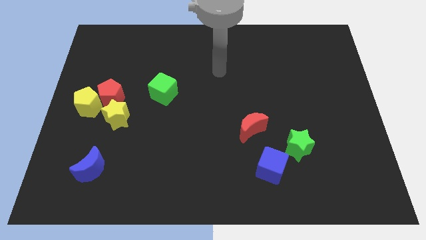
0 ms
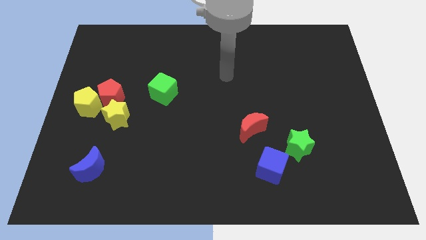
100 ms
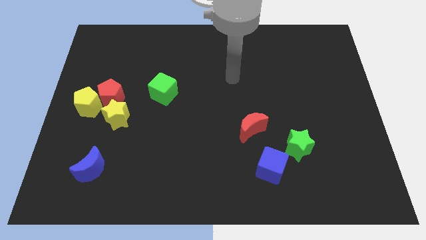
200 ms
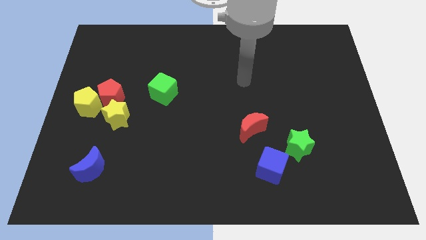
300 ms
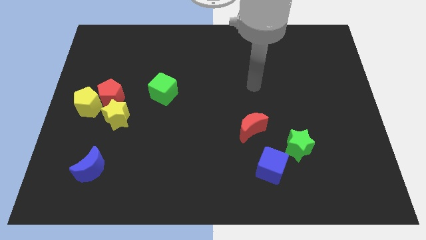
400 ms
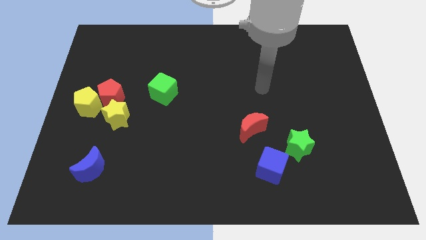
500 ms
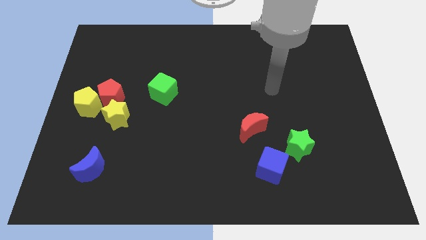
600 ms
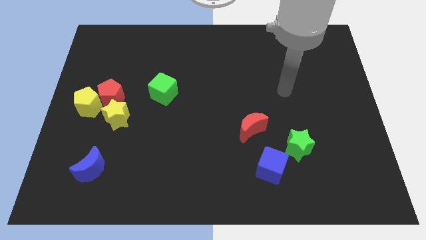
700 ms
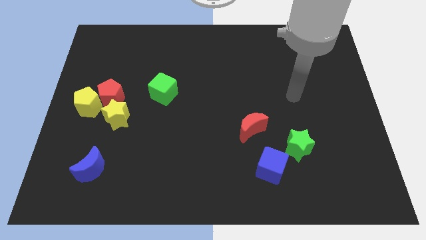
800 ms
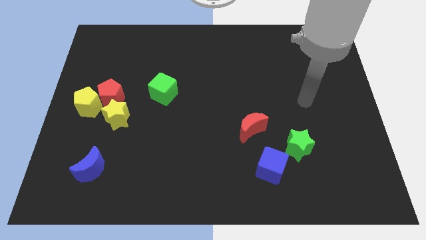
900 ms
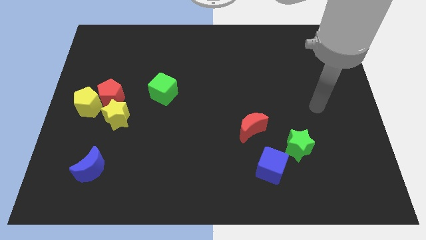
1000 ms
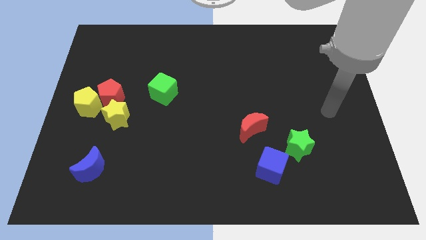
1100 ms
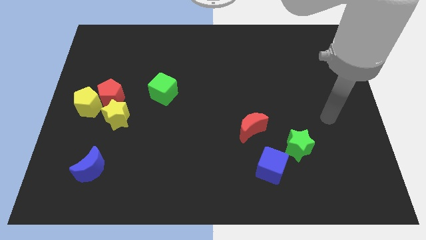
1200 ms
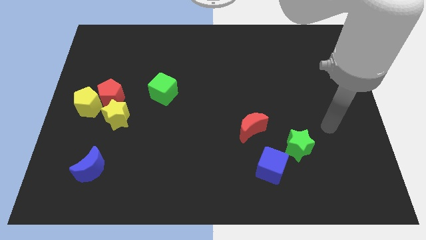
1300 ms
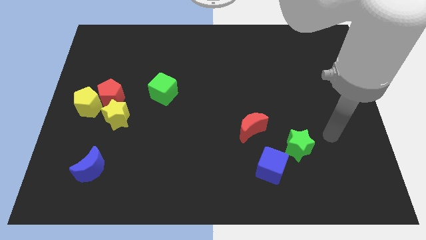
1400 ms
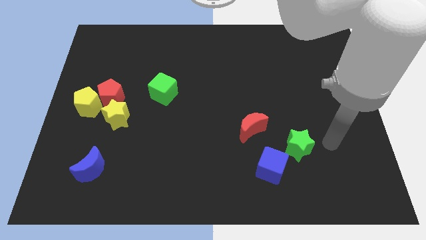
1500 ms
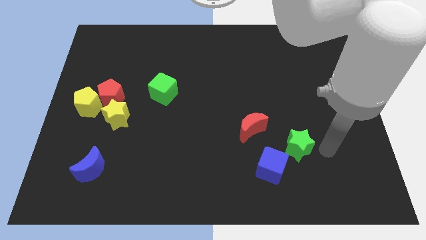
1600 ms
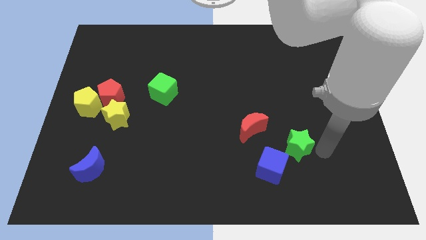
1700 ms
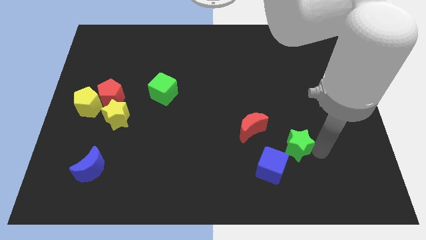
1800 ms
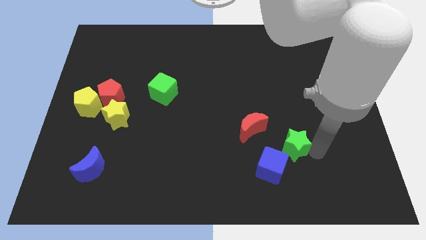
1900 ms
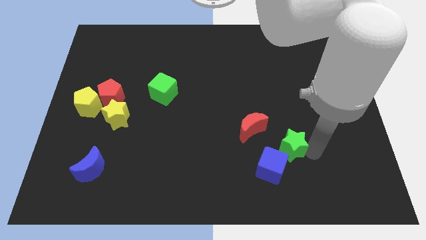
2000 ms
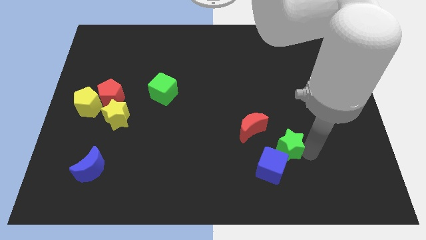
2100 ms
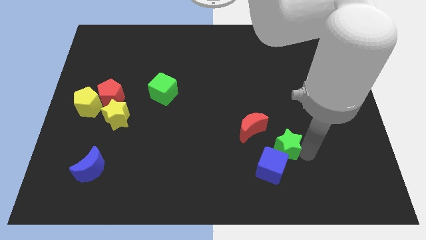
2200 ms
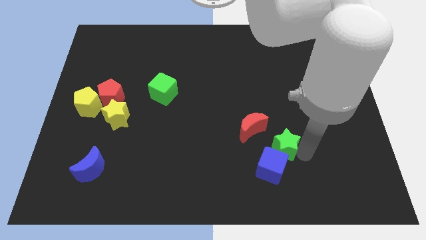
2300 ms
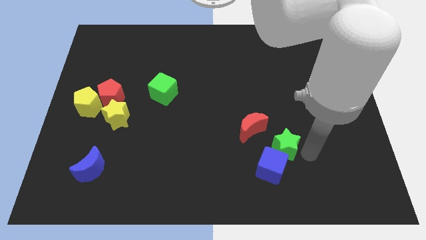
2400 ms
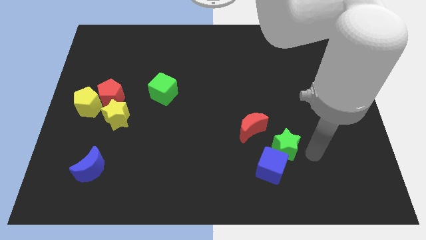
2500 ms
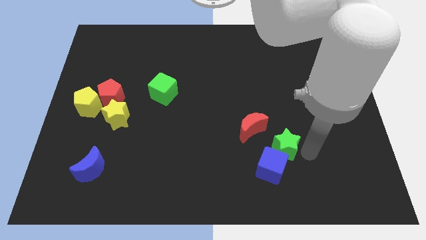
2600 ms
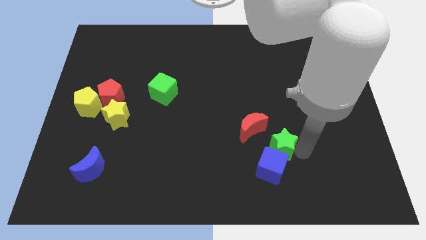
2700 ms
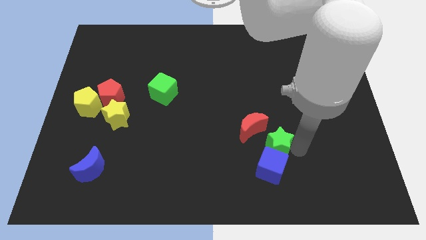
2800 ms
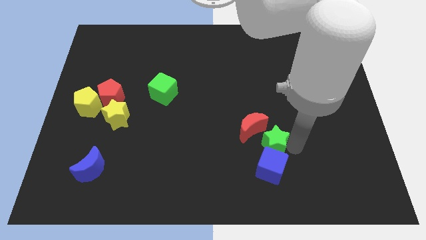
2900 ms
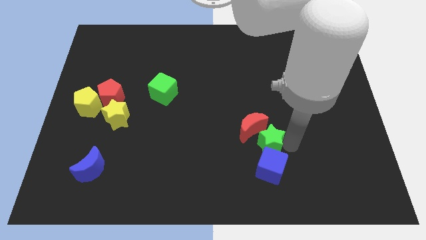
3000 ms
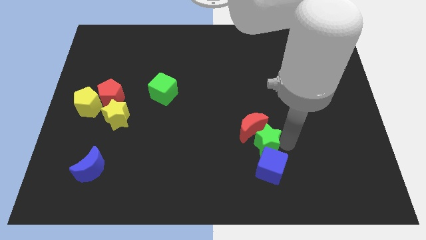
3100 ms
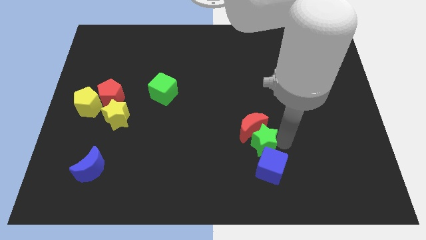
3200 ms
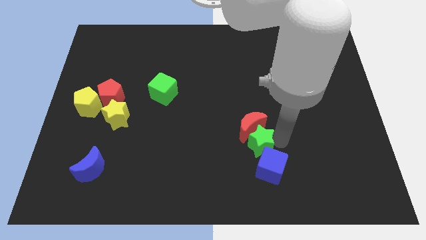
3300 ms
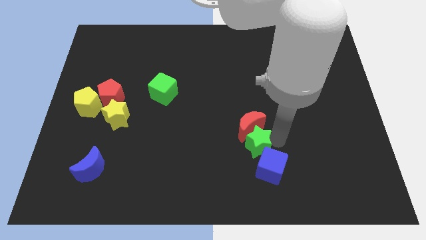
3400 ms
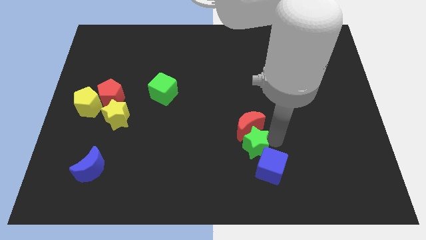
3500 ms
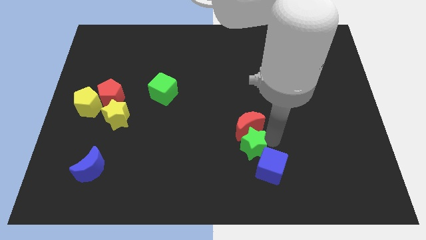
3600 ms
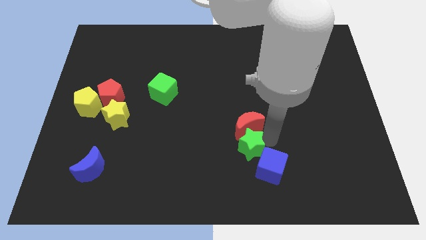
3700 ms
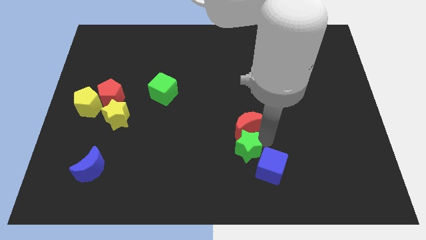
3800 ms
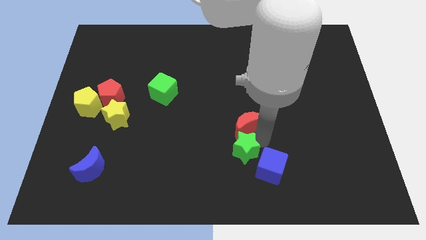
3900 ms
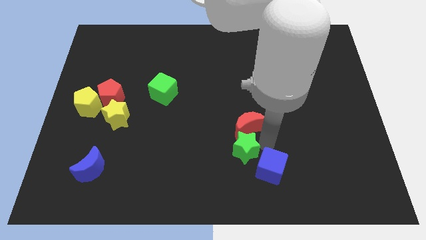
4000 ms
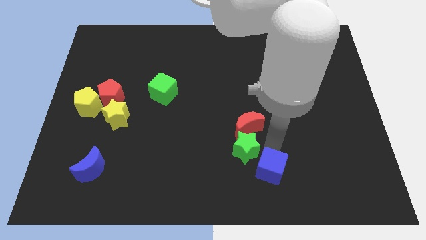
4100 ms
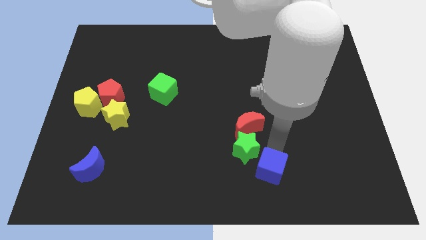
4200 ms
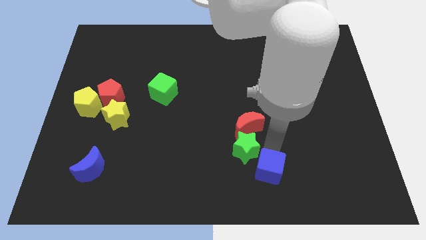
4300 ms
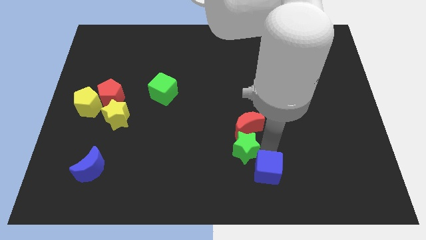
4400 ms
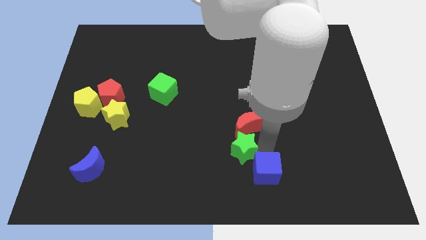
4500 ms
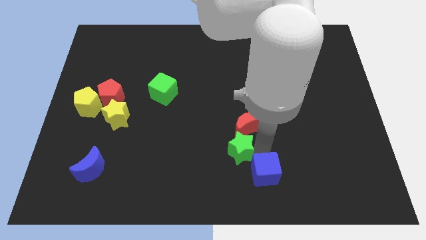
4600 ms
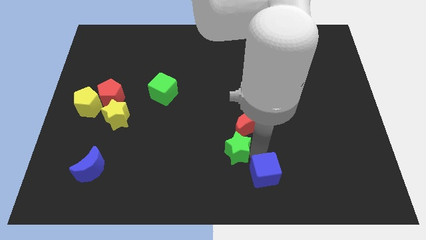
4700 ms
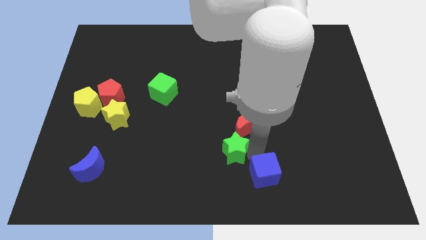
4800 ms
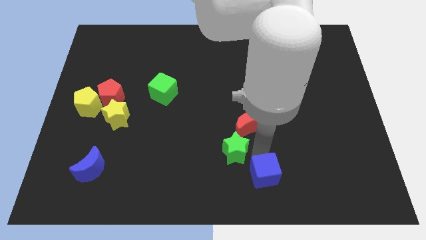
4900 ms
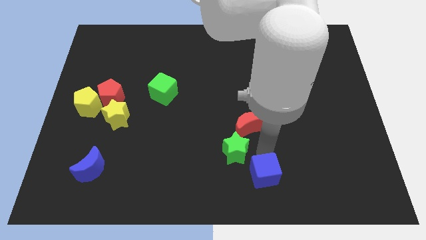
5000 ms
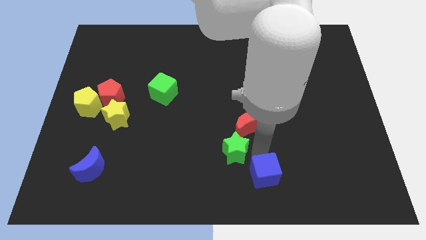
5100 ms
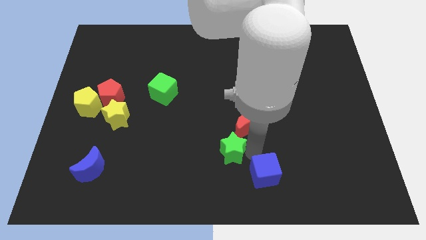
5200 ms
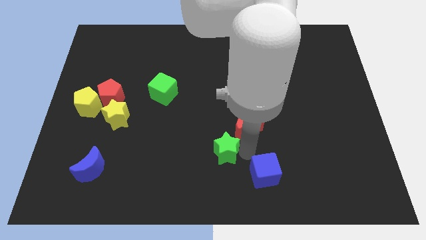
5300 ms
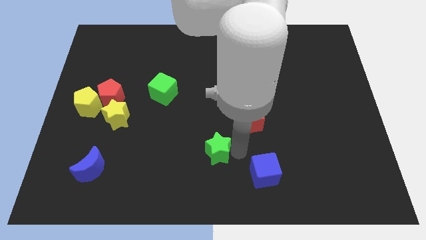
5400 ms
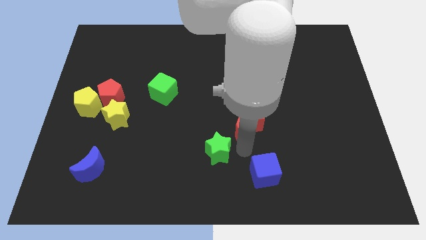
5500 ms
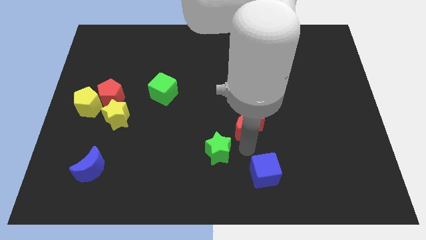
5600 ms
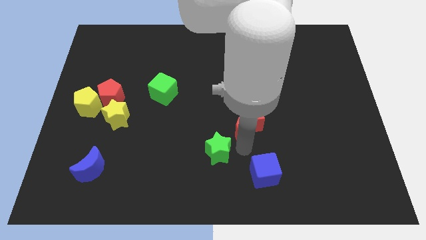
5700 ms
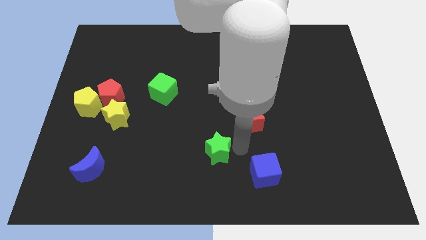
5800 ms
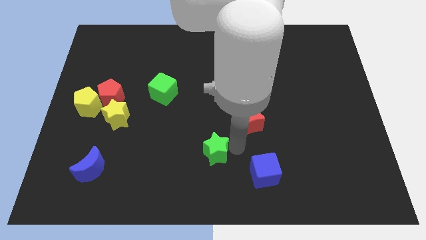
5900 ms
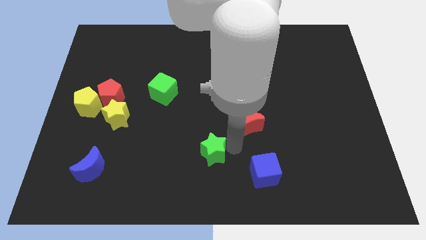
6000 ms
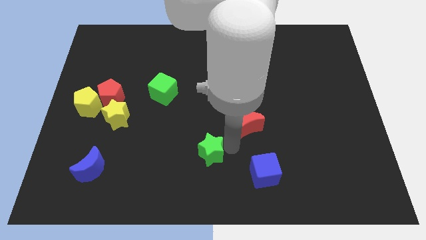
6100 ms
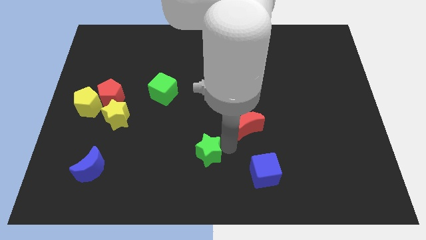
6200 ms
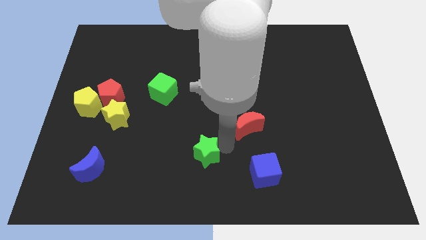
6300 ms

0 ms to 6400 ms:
move the green star left

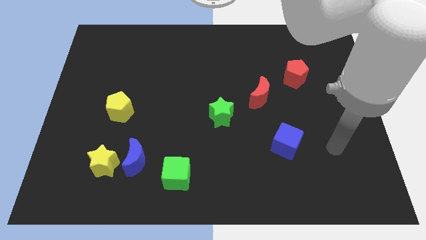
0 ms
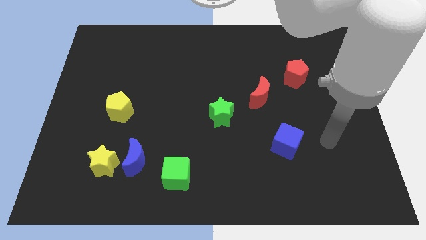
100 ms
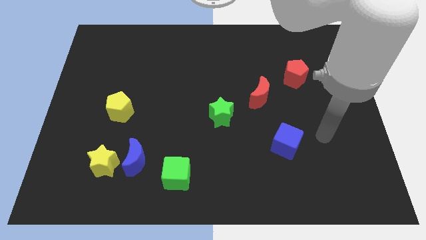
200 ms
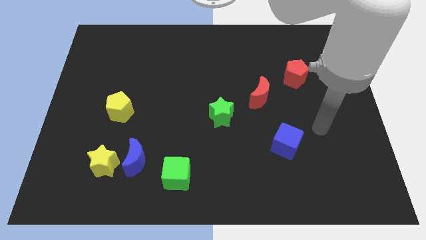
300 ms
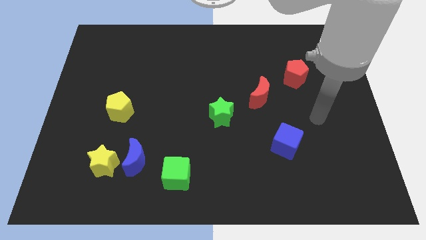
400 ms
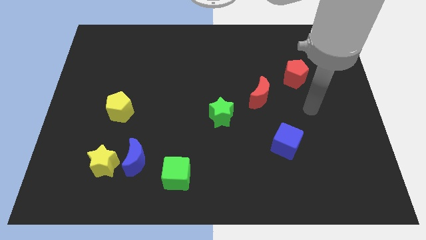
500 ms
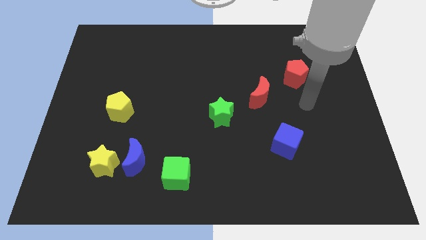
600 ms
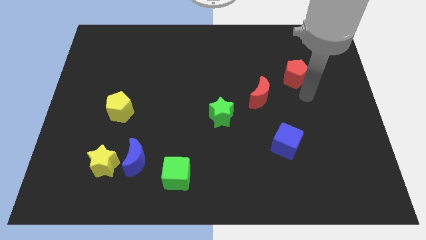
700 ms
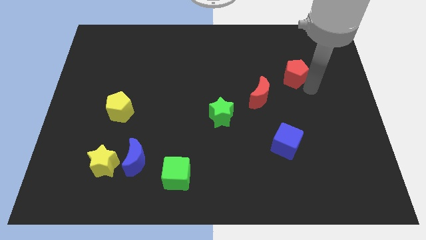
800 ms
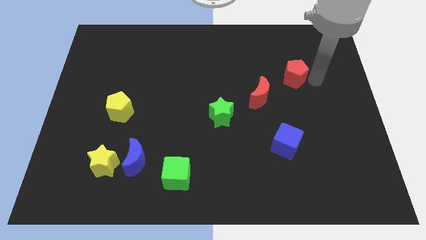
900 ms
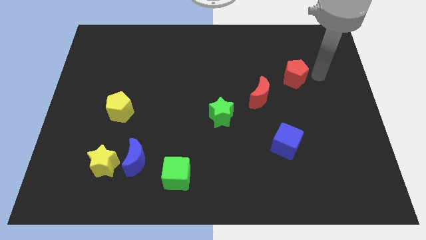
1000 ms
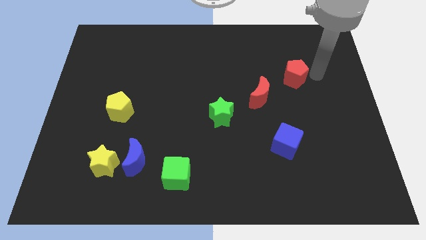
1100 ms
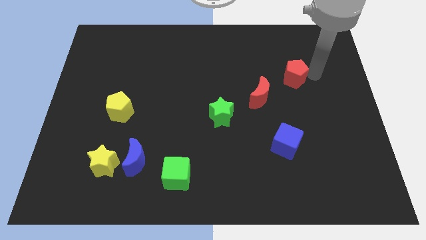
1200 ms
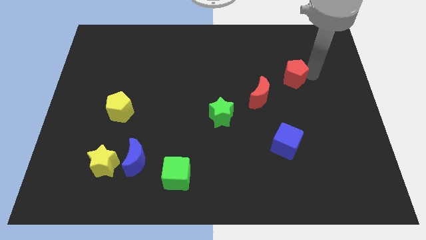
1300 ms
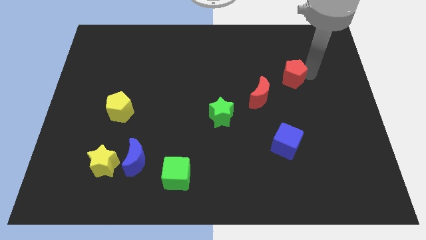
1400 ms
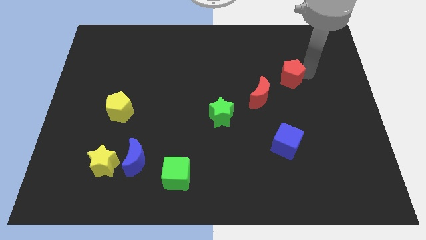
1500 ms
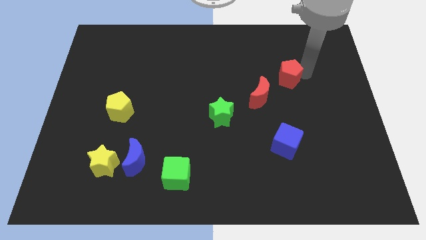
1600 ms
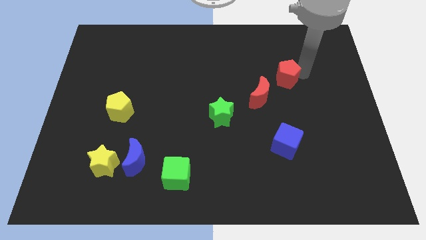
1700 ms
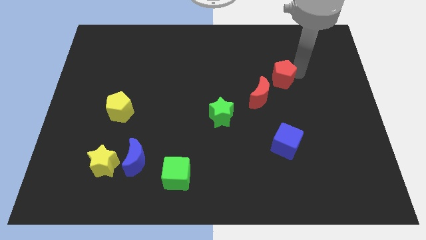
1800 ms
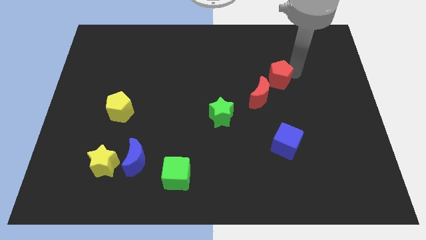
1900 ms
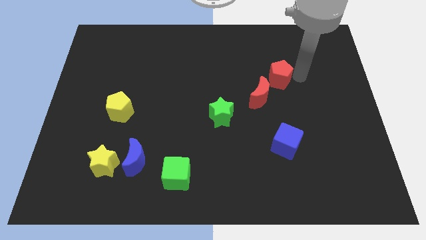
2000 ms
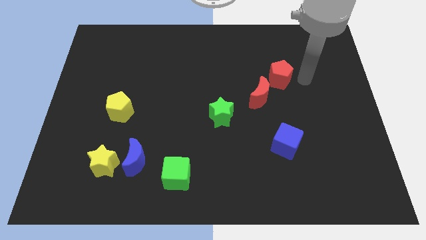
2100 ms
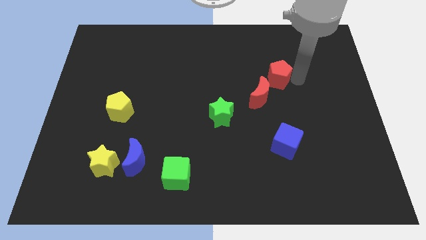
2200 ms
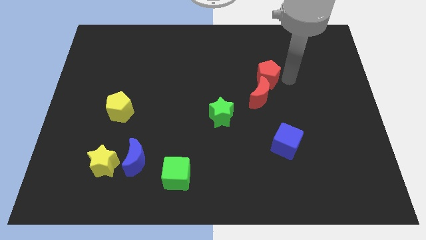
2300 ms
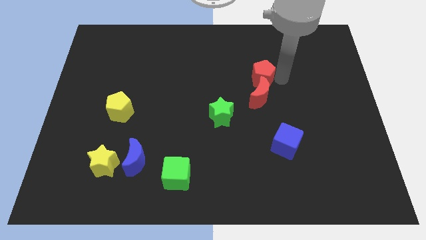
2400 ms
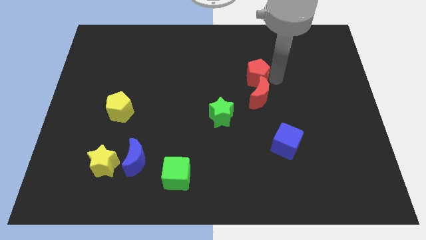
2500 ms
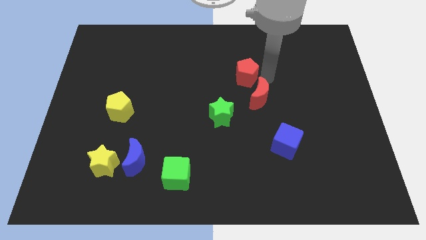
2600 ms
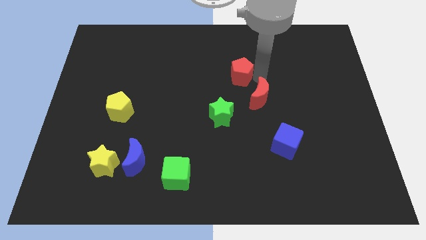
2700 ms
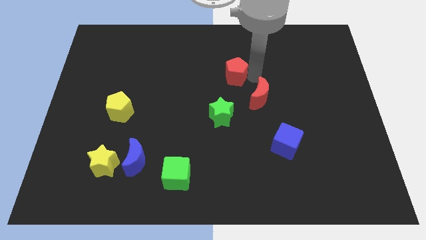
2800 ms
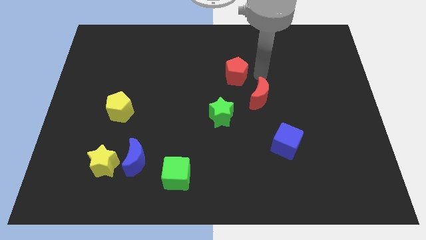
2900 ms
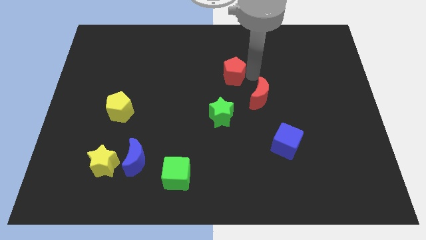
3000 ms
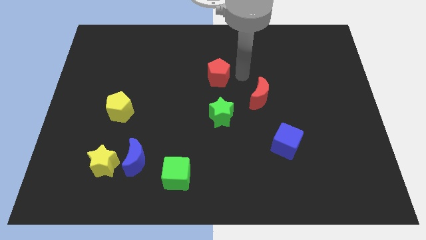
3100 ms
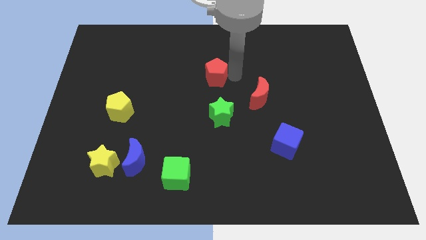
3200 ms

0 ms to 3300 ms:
slide the red pentagon to the left
